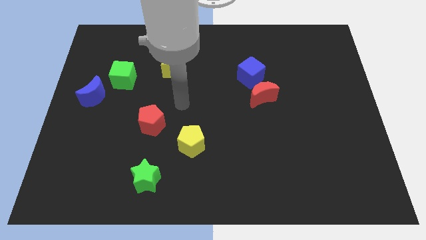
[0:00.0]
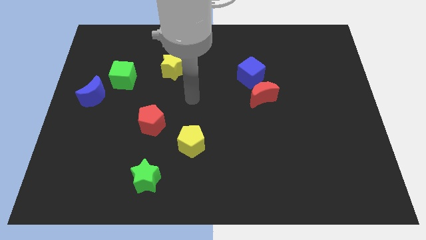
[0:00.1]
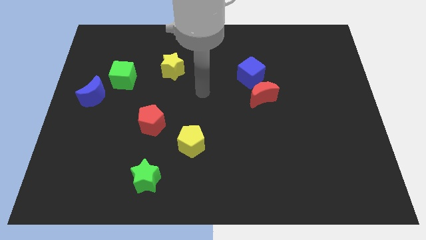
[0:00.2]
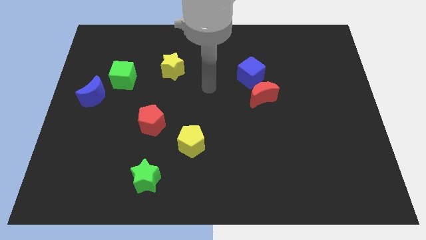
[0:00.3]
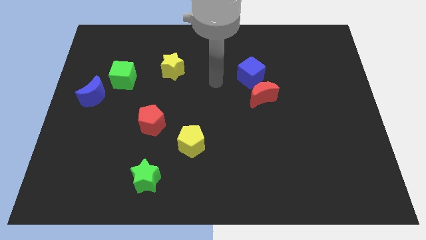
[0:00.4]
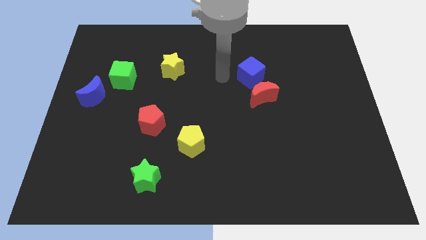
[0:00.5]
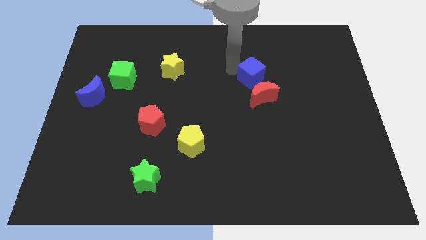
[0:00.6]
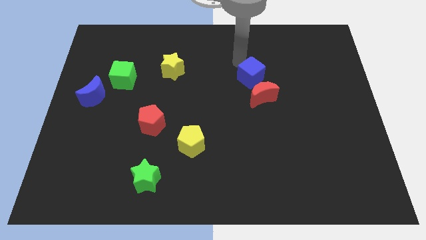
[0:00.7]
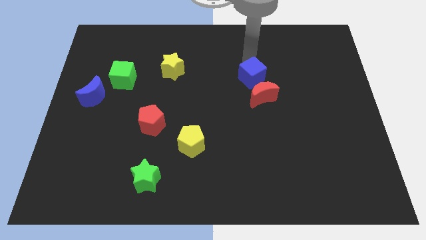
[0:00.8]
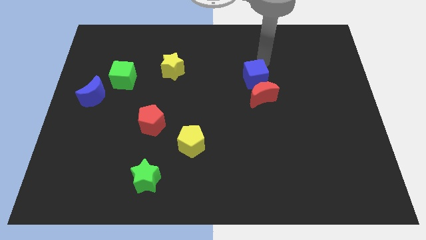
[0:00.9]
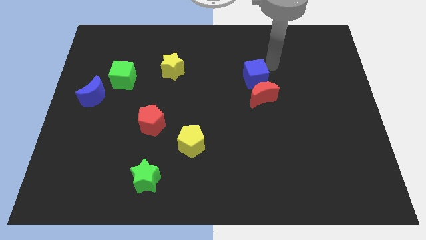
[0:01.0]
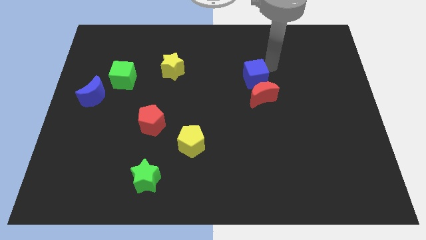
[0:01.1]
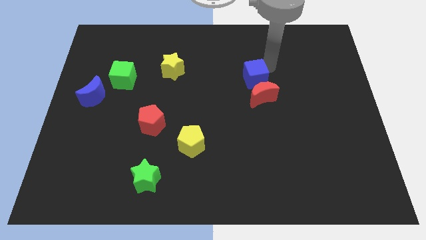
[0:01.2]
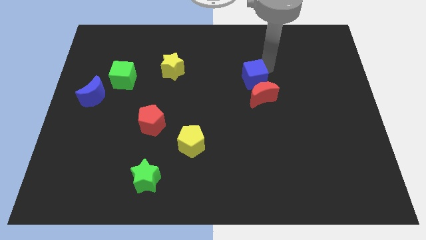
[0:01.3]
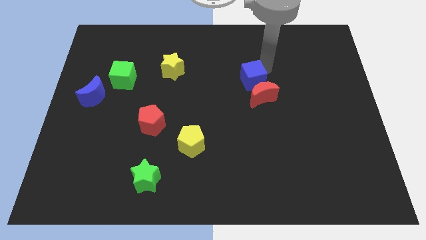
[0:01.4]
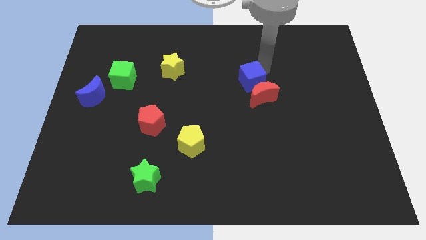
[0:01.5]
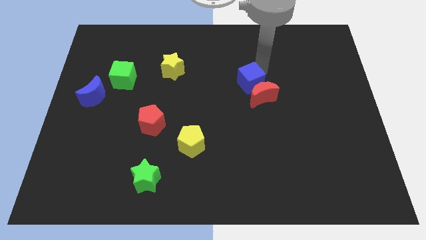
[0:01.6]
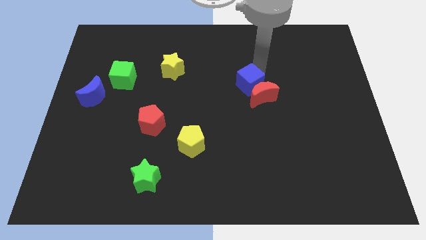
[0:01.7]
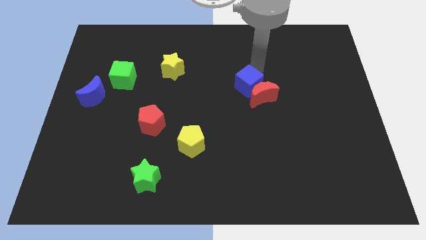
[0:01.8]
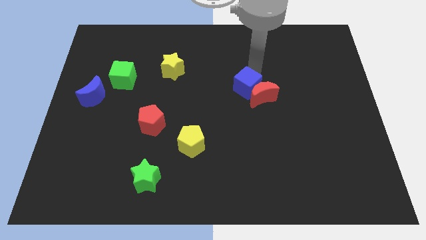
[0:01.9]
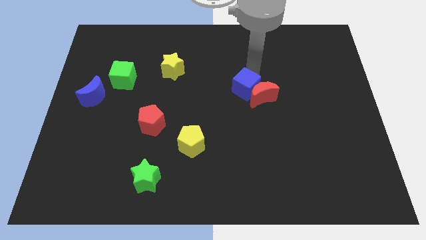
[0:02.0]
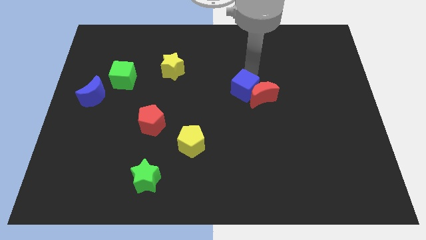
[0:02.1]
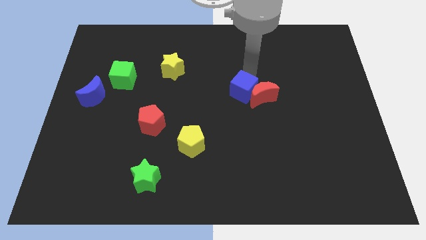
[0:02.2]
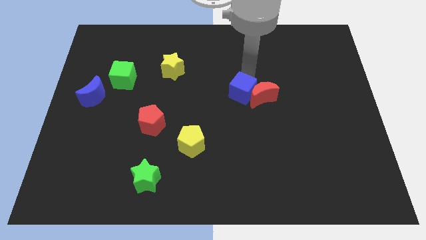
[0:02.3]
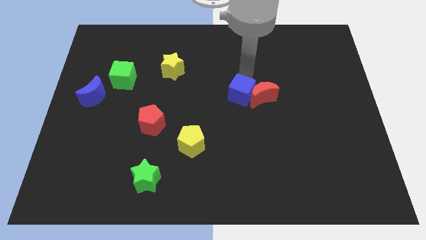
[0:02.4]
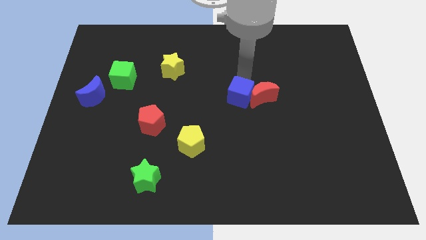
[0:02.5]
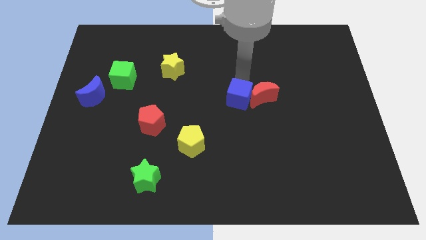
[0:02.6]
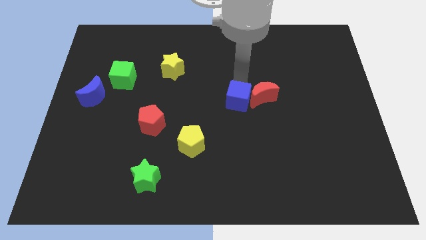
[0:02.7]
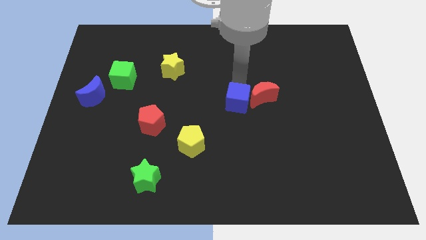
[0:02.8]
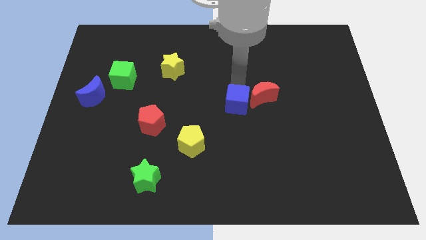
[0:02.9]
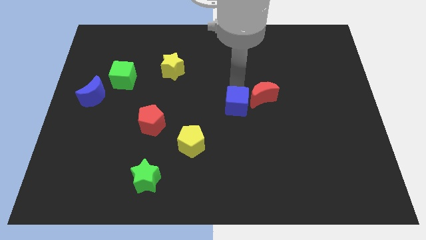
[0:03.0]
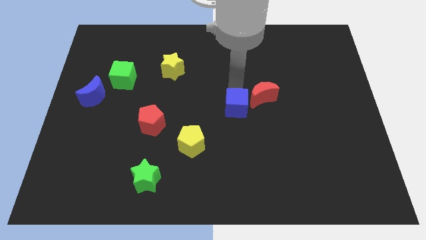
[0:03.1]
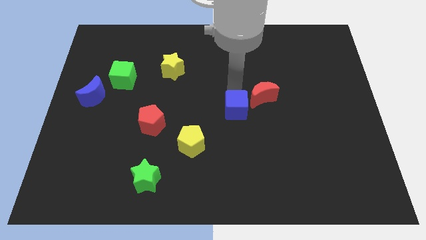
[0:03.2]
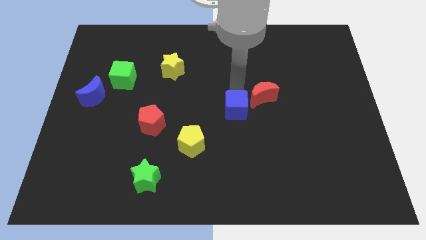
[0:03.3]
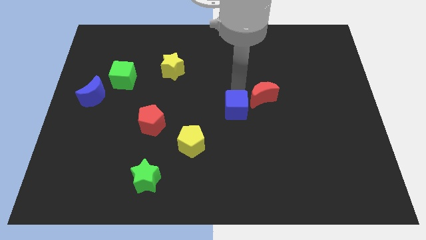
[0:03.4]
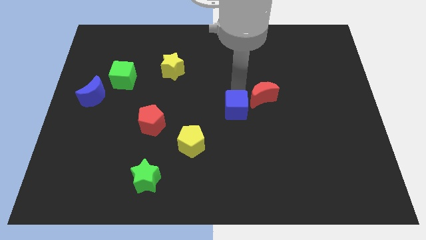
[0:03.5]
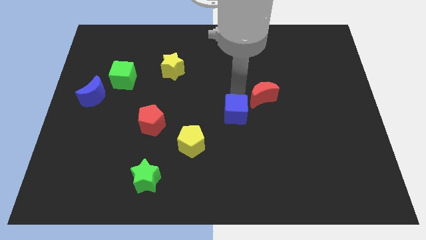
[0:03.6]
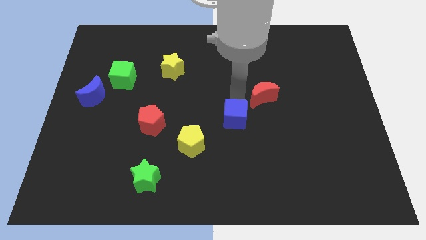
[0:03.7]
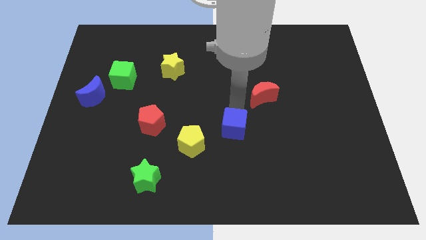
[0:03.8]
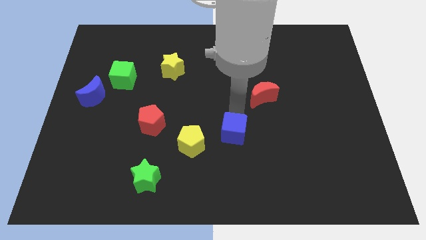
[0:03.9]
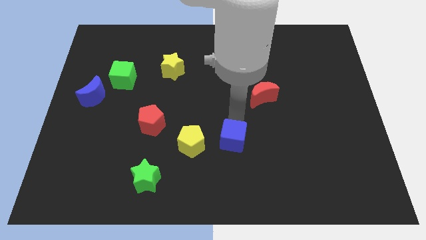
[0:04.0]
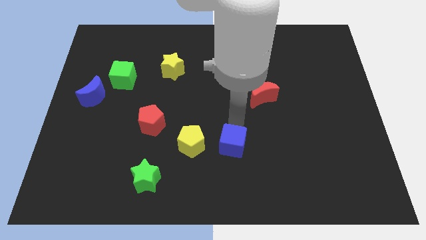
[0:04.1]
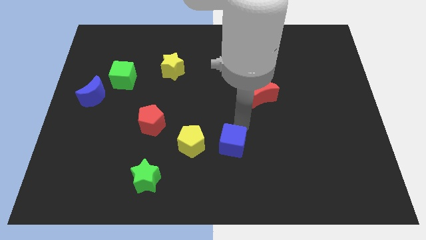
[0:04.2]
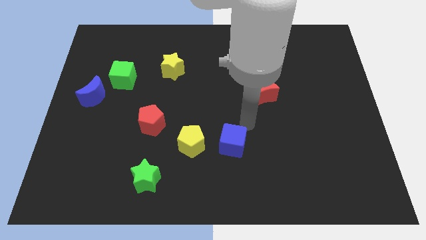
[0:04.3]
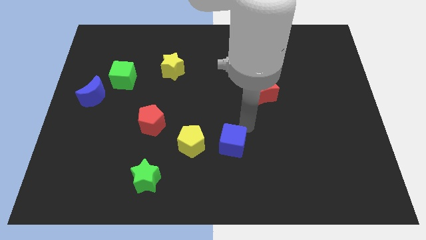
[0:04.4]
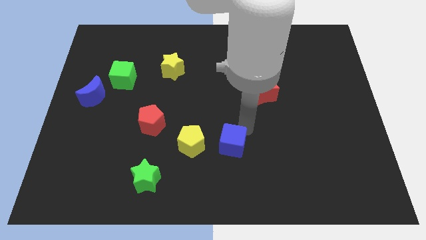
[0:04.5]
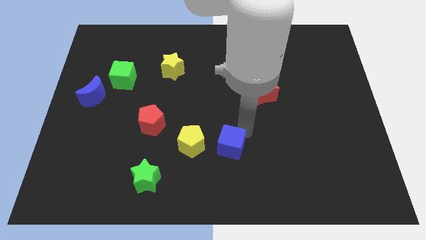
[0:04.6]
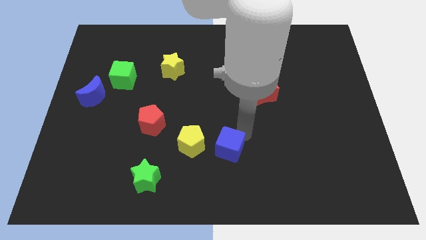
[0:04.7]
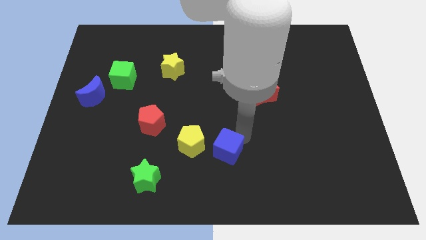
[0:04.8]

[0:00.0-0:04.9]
push the blue cube to the bottom right of the yellow pentagon

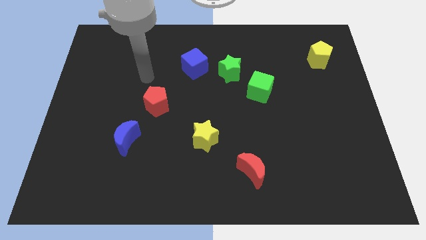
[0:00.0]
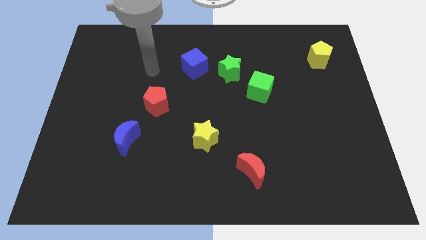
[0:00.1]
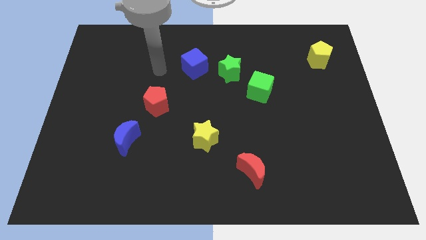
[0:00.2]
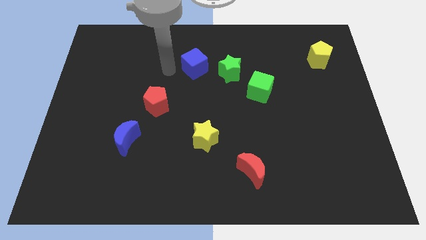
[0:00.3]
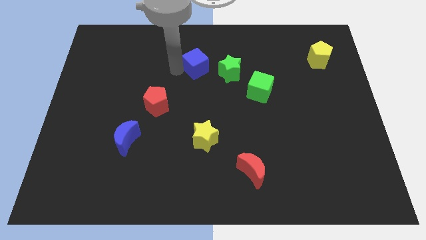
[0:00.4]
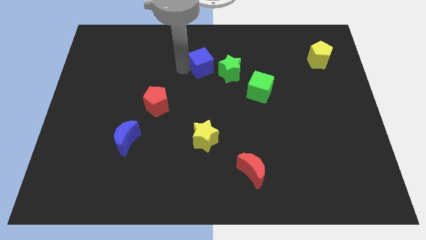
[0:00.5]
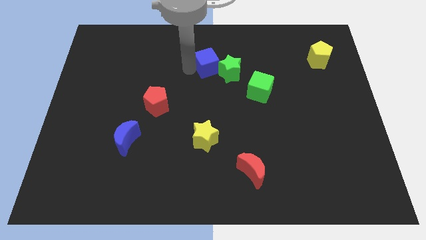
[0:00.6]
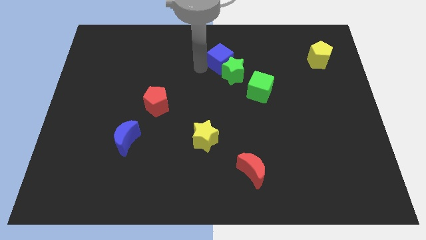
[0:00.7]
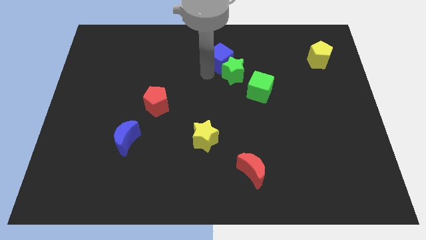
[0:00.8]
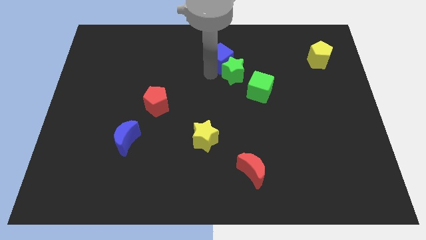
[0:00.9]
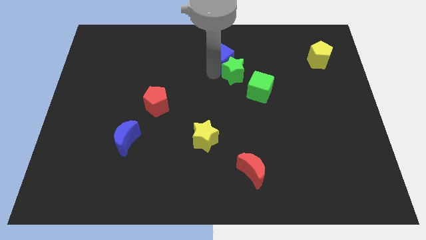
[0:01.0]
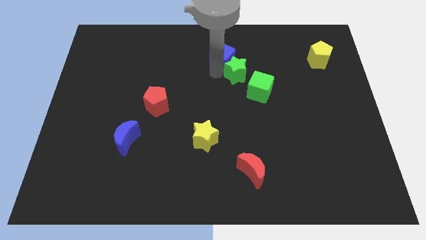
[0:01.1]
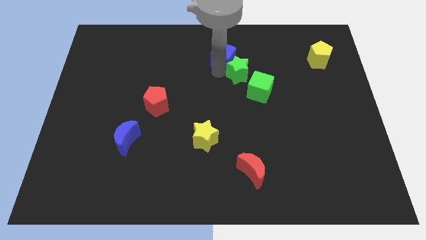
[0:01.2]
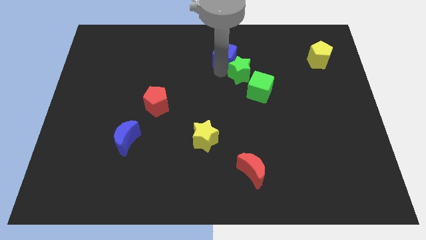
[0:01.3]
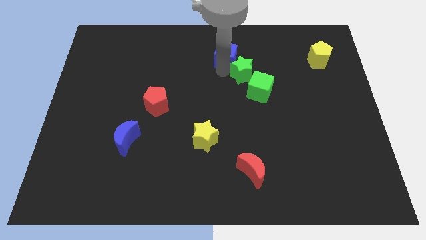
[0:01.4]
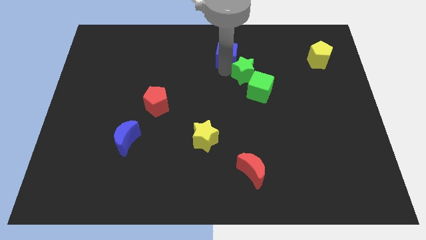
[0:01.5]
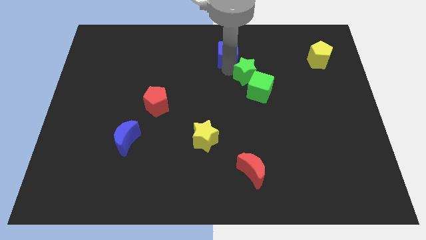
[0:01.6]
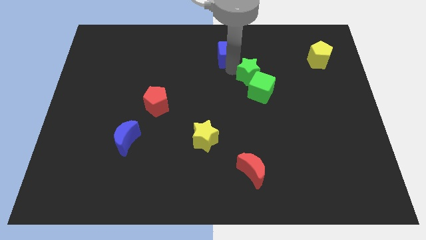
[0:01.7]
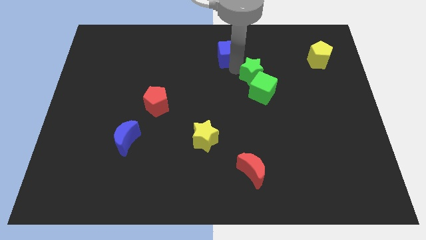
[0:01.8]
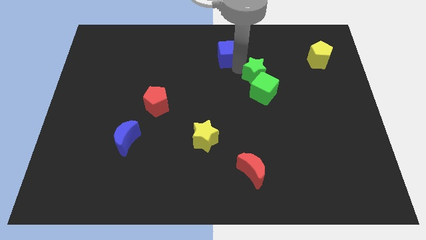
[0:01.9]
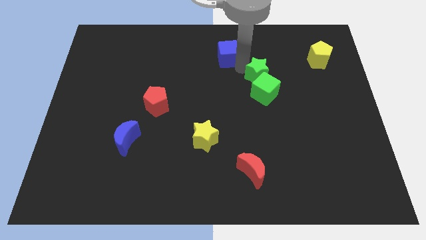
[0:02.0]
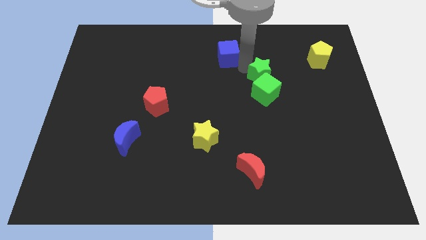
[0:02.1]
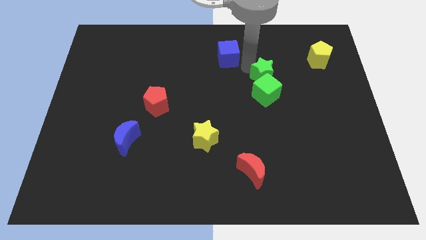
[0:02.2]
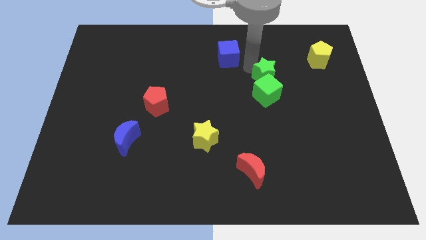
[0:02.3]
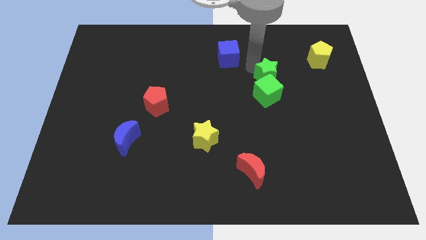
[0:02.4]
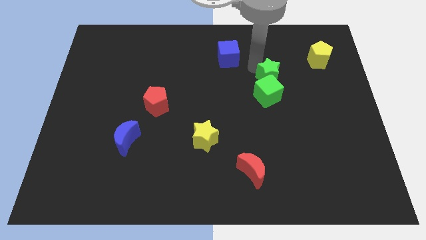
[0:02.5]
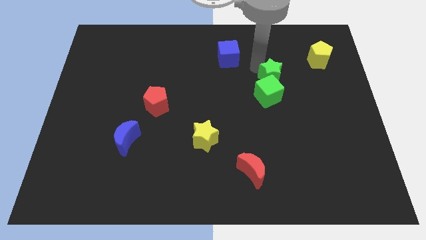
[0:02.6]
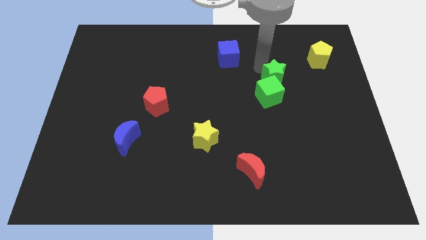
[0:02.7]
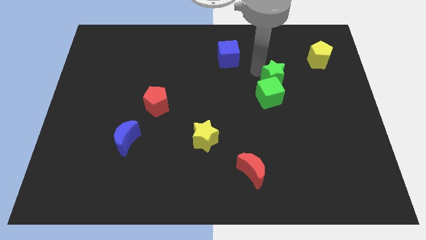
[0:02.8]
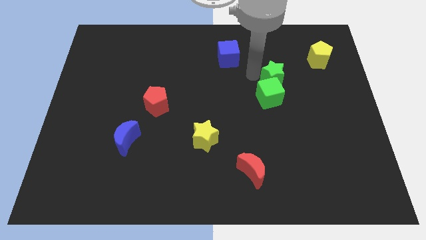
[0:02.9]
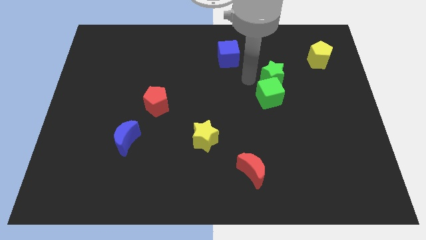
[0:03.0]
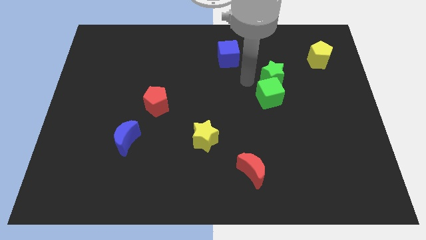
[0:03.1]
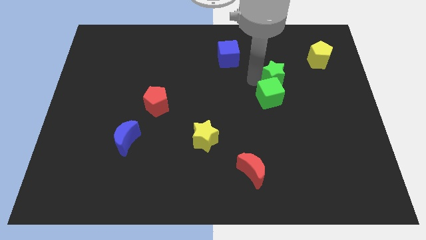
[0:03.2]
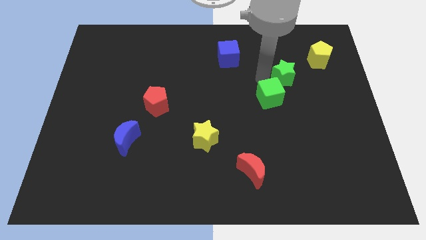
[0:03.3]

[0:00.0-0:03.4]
push the green star to the bottom left of the yellow pentagon

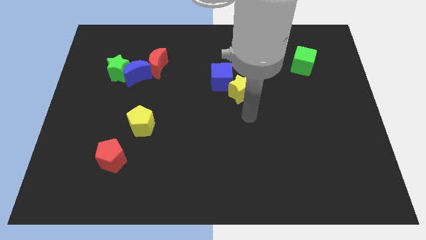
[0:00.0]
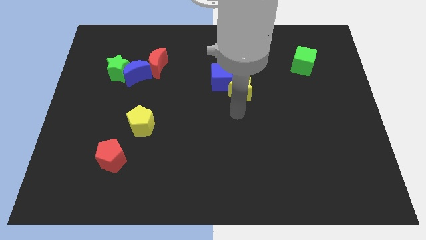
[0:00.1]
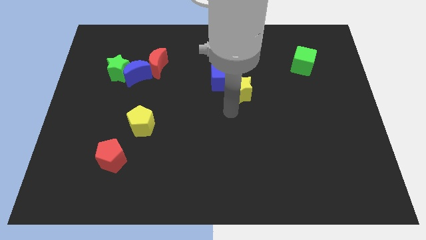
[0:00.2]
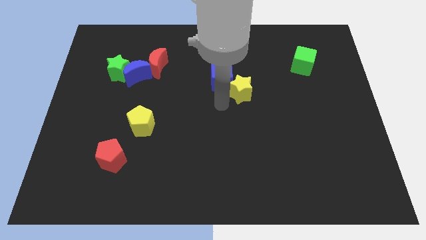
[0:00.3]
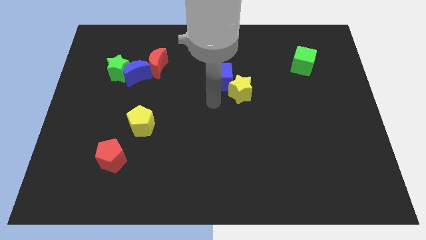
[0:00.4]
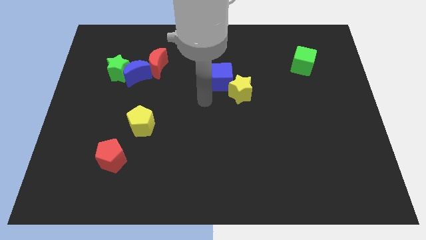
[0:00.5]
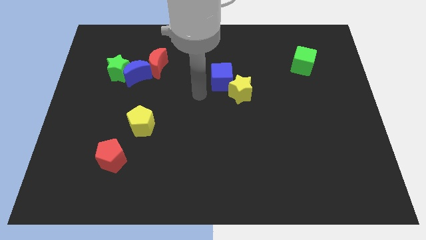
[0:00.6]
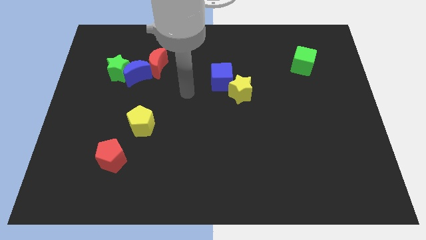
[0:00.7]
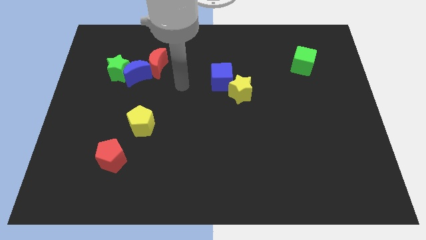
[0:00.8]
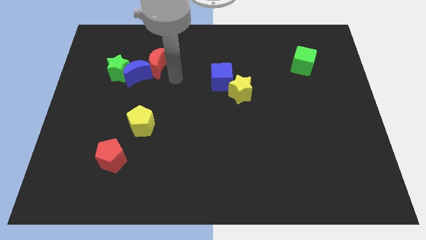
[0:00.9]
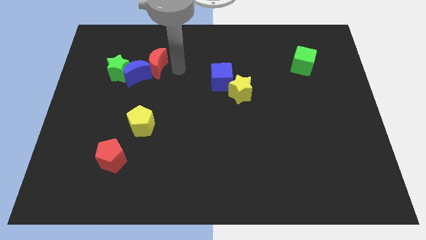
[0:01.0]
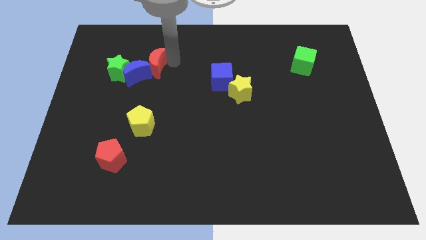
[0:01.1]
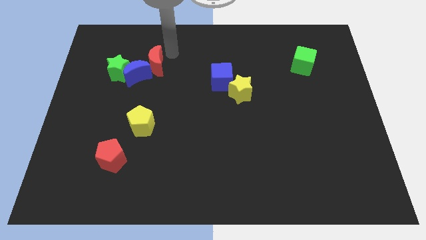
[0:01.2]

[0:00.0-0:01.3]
slide the green star diagonally down and to the left of the red moon
